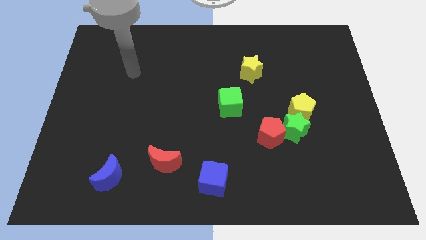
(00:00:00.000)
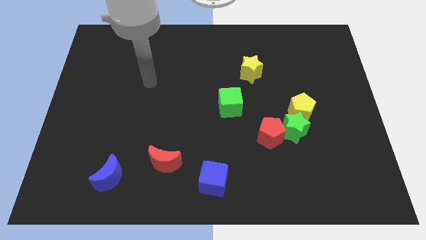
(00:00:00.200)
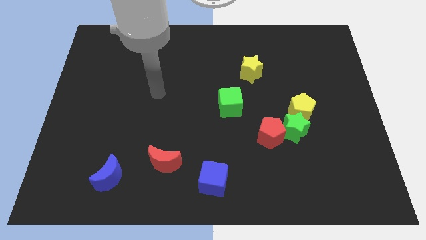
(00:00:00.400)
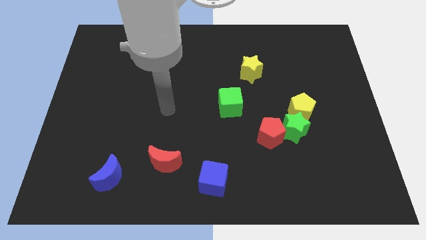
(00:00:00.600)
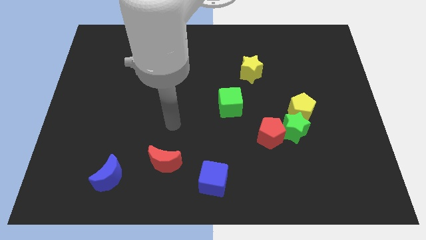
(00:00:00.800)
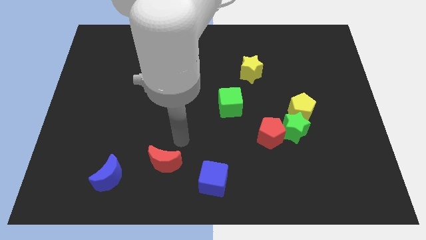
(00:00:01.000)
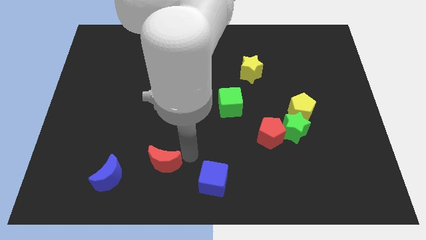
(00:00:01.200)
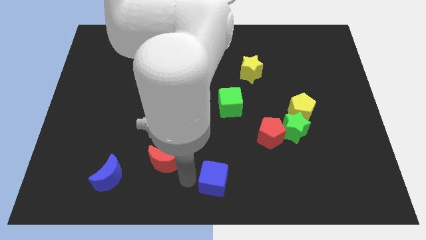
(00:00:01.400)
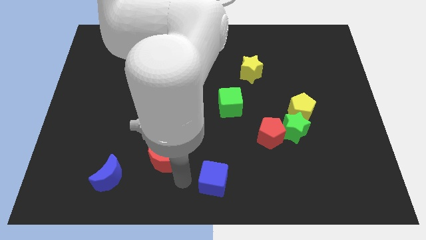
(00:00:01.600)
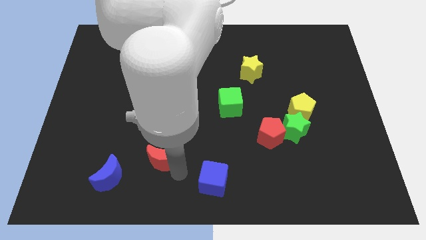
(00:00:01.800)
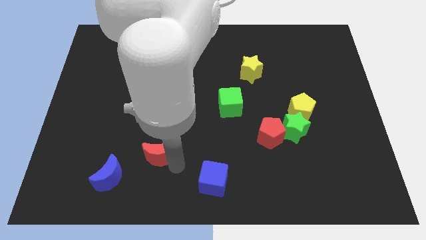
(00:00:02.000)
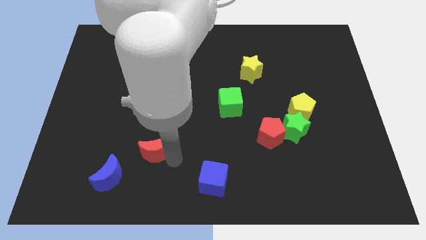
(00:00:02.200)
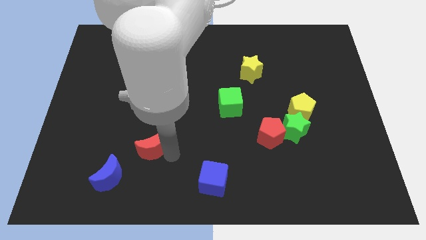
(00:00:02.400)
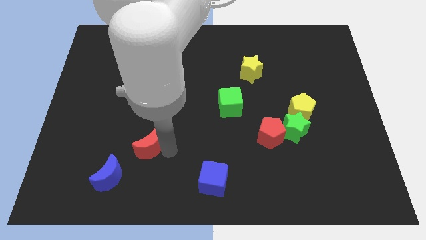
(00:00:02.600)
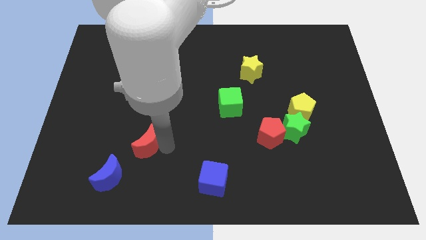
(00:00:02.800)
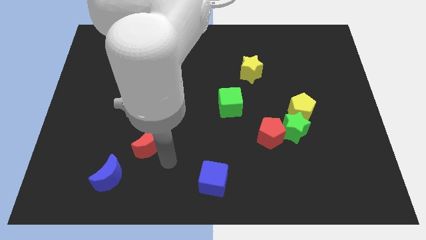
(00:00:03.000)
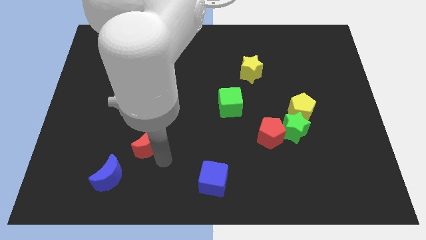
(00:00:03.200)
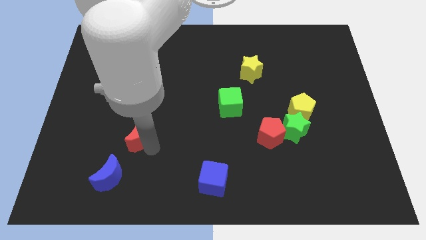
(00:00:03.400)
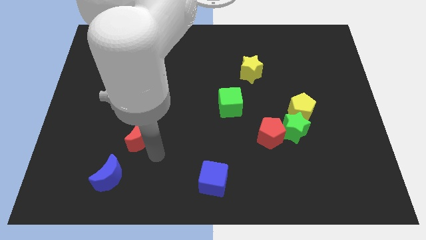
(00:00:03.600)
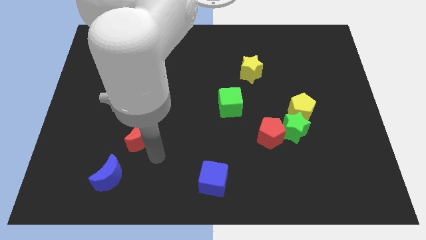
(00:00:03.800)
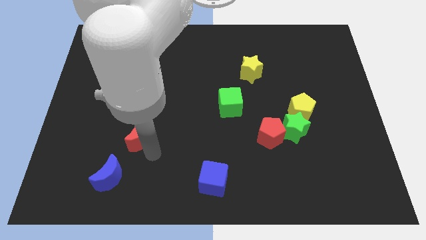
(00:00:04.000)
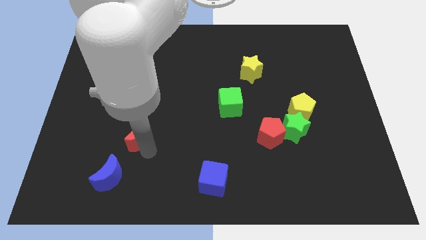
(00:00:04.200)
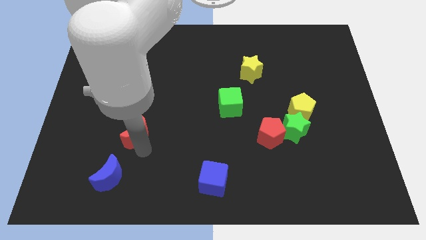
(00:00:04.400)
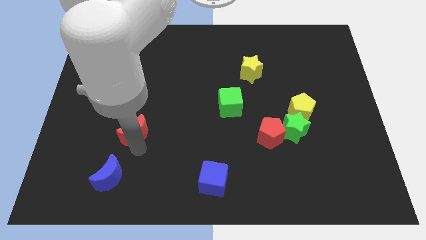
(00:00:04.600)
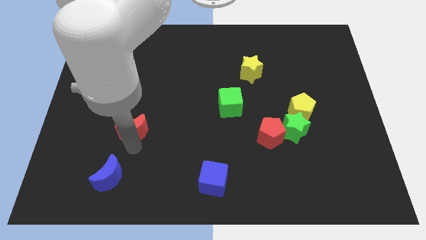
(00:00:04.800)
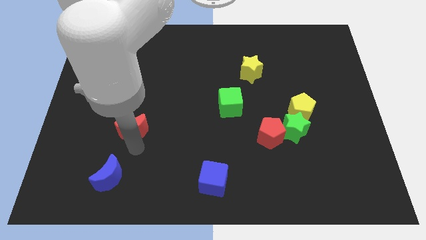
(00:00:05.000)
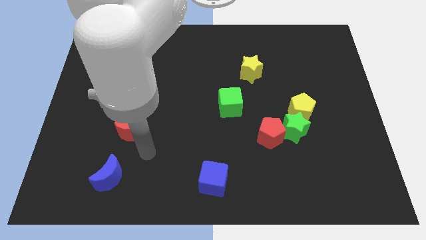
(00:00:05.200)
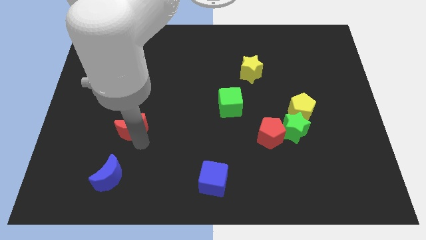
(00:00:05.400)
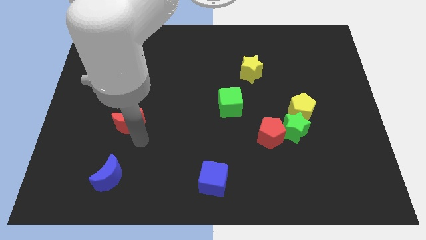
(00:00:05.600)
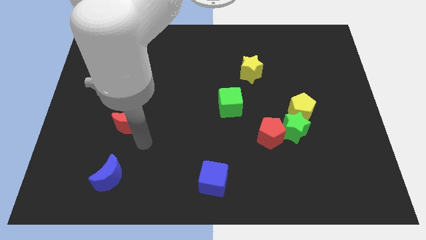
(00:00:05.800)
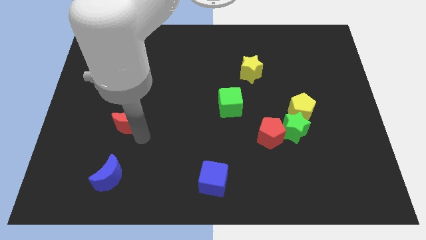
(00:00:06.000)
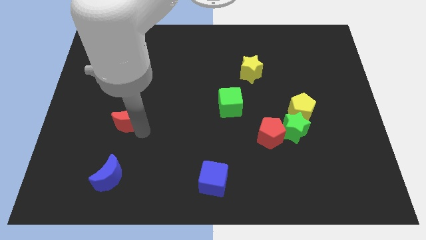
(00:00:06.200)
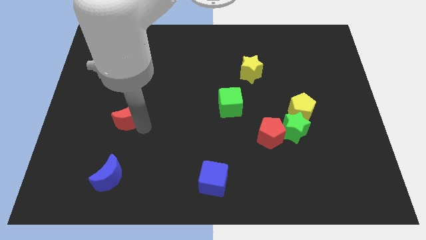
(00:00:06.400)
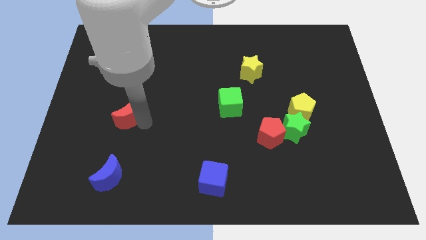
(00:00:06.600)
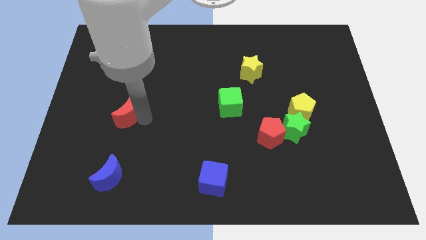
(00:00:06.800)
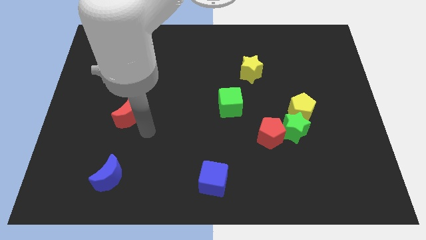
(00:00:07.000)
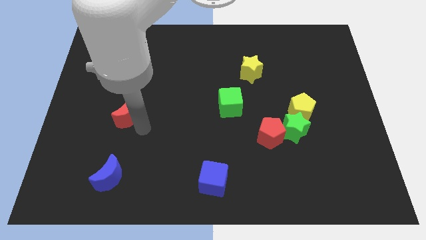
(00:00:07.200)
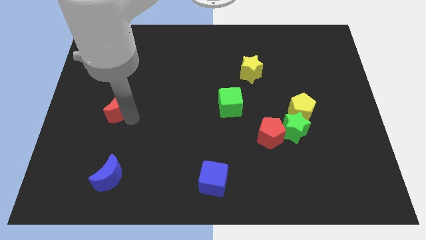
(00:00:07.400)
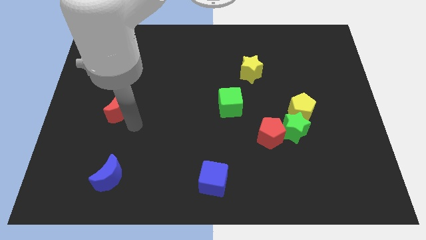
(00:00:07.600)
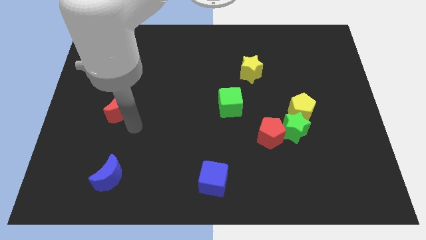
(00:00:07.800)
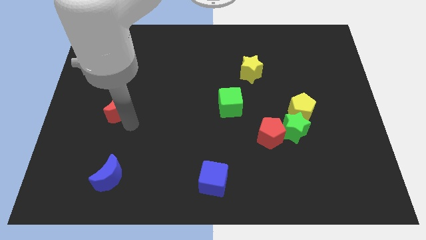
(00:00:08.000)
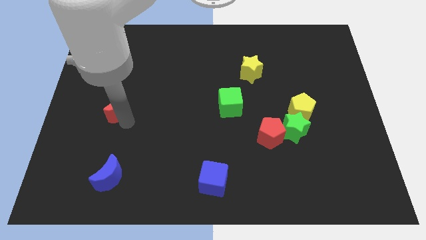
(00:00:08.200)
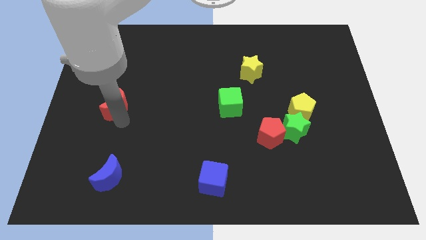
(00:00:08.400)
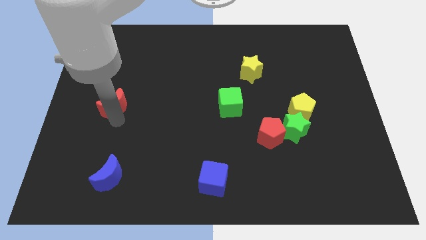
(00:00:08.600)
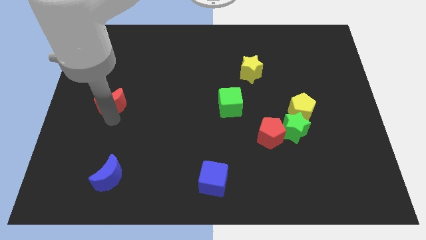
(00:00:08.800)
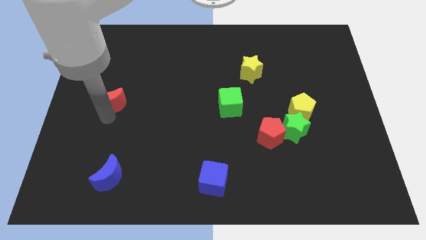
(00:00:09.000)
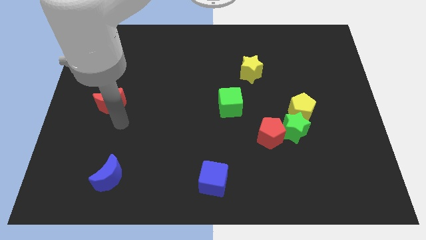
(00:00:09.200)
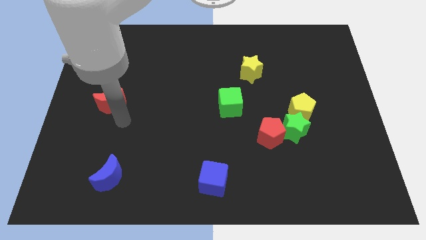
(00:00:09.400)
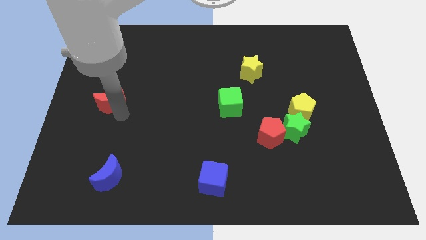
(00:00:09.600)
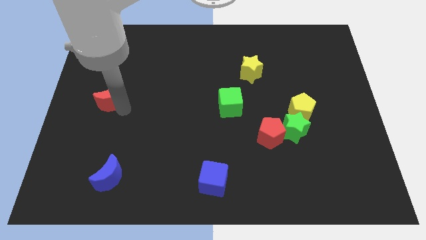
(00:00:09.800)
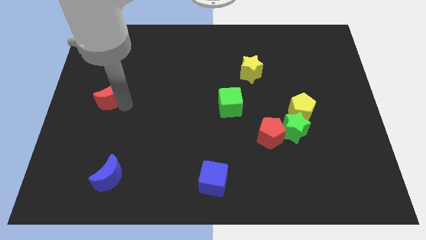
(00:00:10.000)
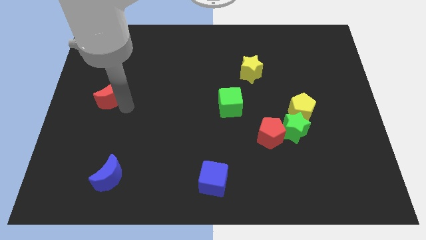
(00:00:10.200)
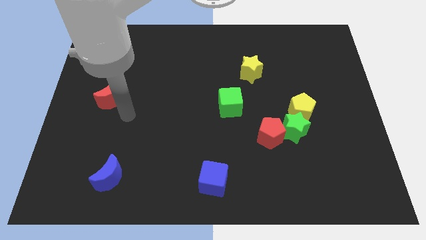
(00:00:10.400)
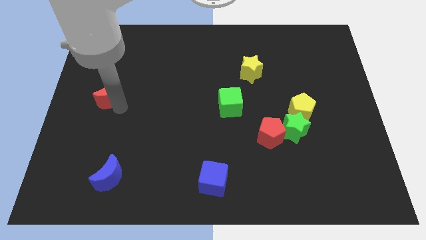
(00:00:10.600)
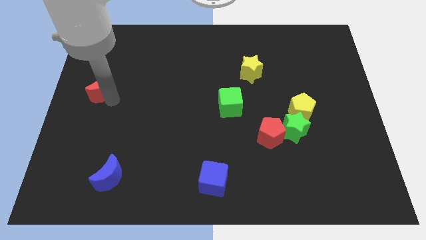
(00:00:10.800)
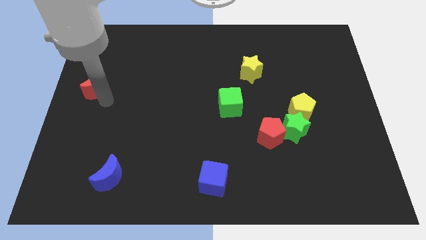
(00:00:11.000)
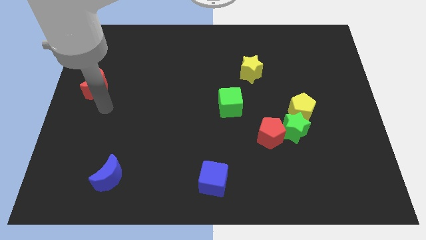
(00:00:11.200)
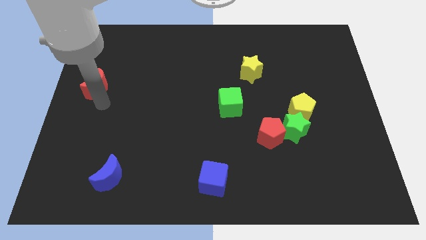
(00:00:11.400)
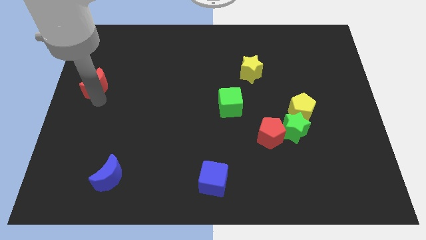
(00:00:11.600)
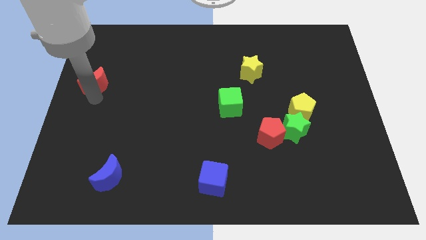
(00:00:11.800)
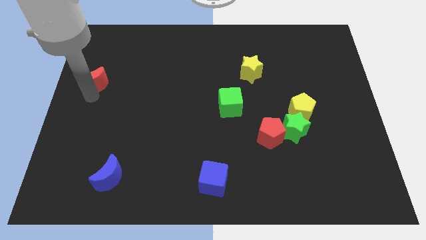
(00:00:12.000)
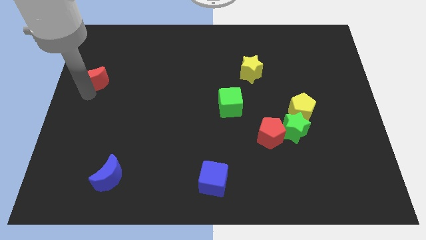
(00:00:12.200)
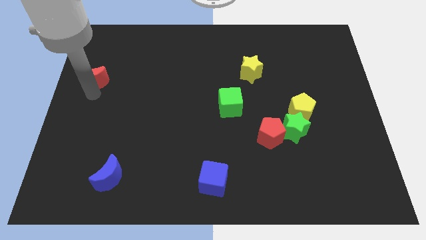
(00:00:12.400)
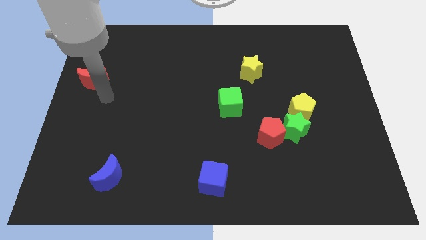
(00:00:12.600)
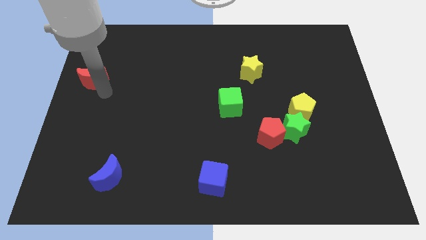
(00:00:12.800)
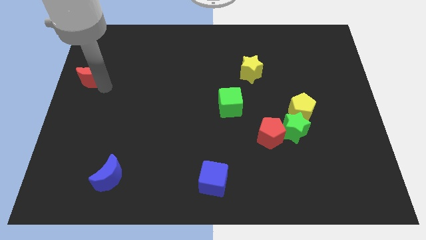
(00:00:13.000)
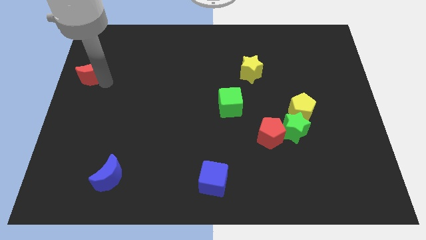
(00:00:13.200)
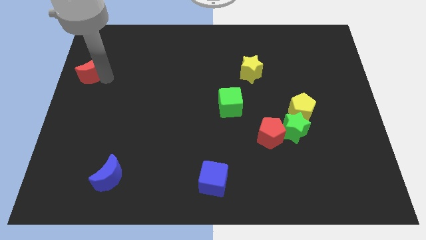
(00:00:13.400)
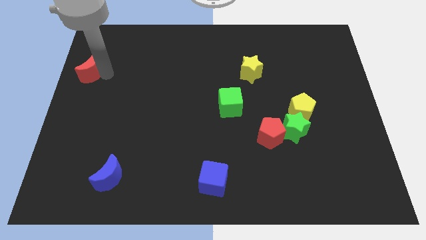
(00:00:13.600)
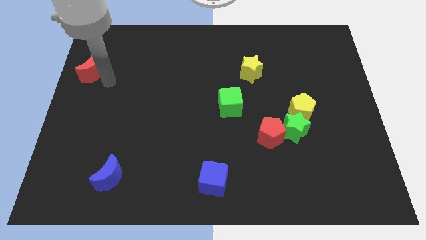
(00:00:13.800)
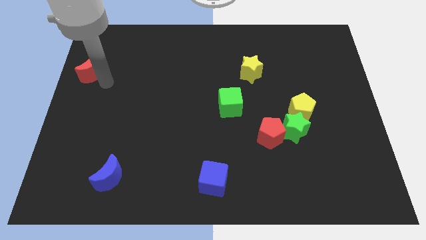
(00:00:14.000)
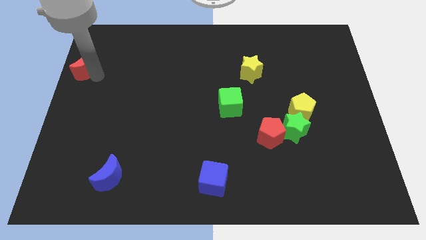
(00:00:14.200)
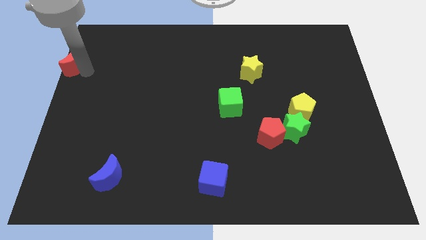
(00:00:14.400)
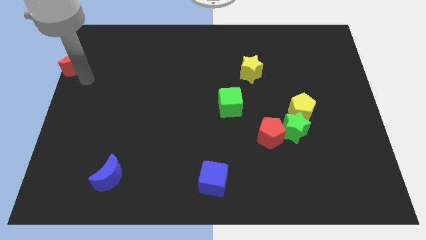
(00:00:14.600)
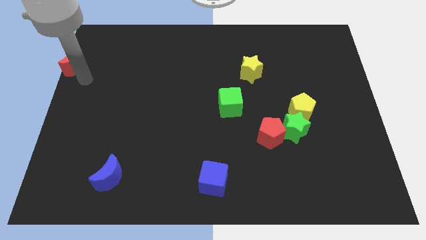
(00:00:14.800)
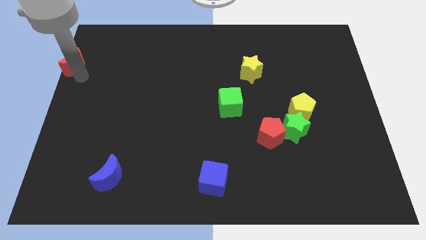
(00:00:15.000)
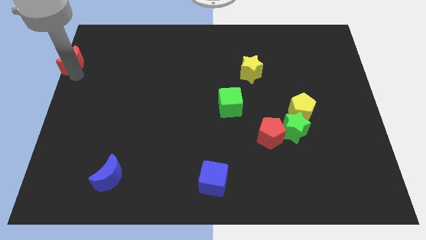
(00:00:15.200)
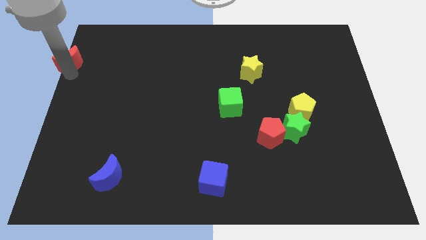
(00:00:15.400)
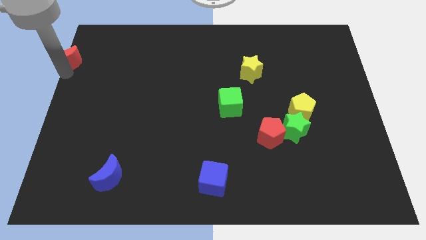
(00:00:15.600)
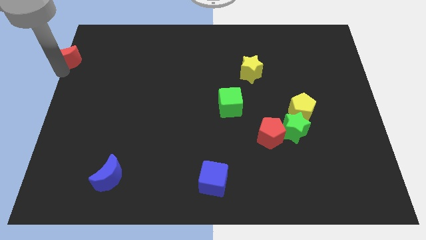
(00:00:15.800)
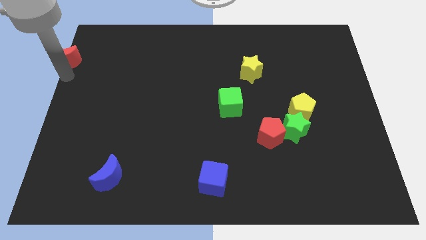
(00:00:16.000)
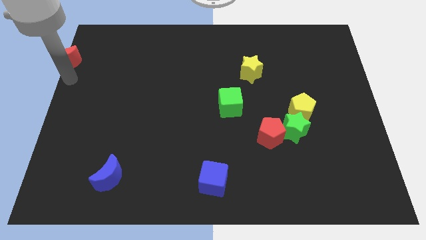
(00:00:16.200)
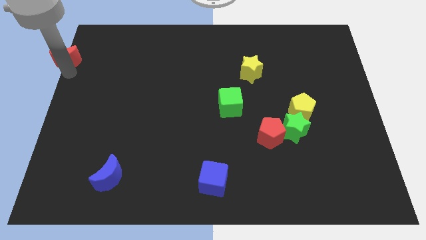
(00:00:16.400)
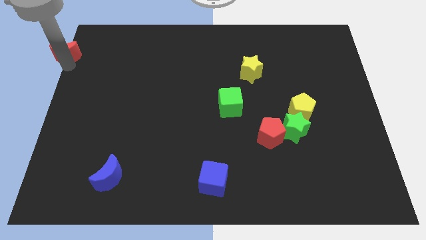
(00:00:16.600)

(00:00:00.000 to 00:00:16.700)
put the red moon to the top left of the board
